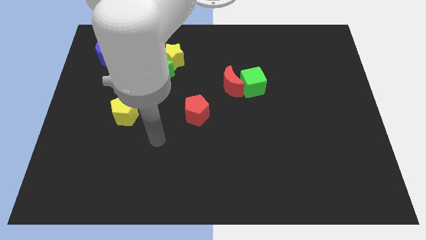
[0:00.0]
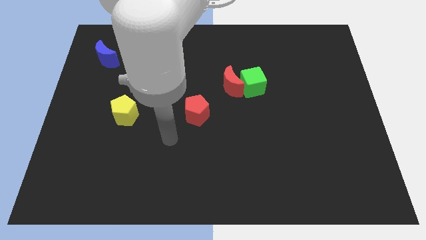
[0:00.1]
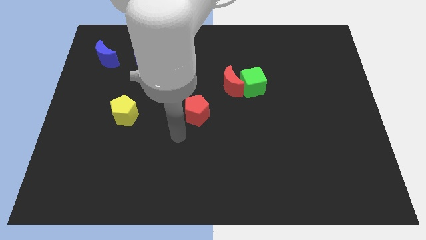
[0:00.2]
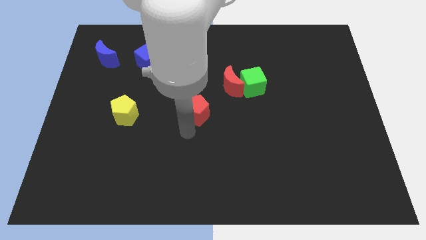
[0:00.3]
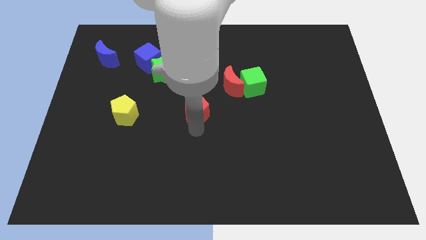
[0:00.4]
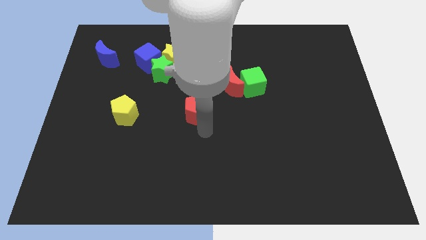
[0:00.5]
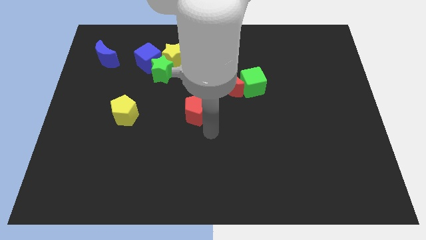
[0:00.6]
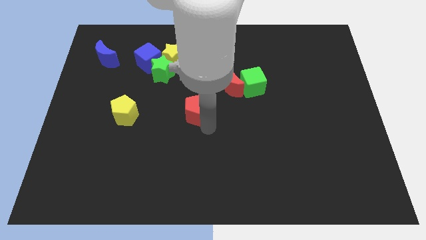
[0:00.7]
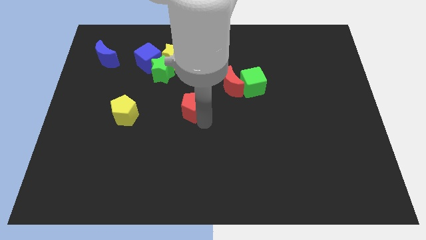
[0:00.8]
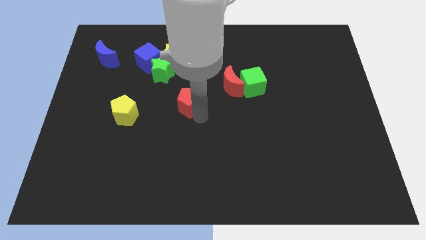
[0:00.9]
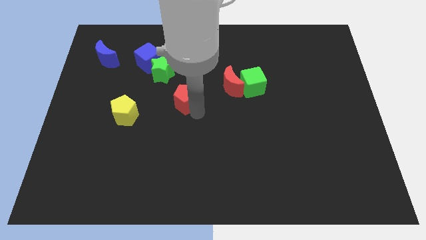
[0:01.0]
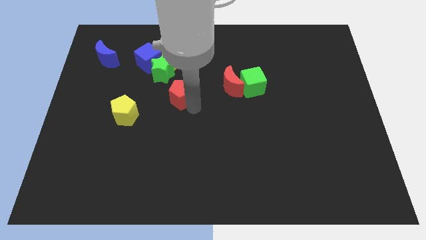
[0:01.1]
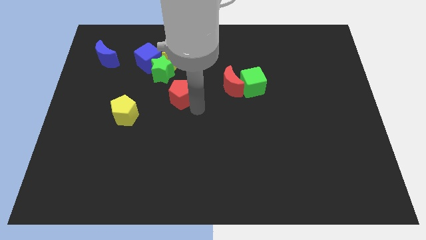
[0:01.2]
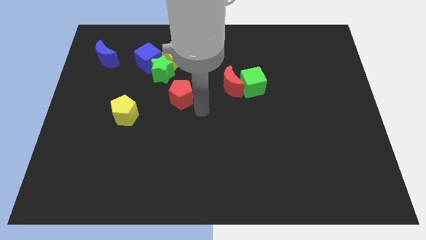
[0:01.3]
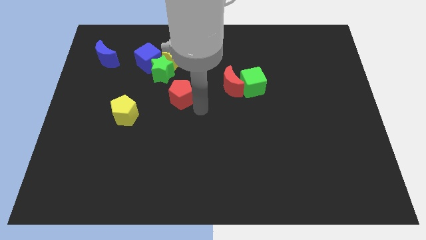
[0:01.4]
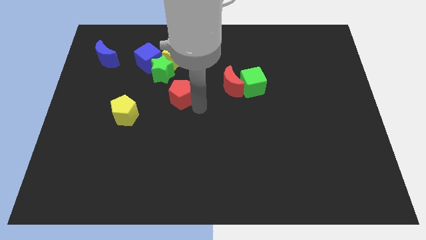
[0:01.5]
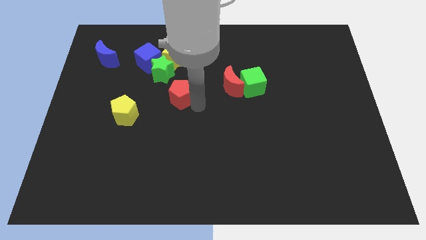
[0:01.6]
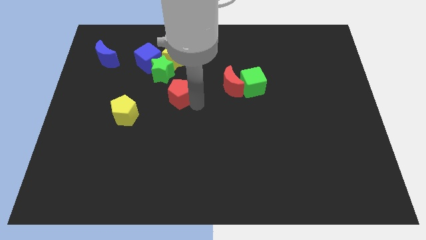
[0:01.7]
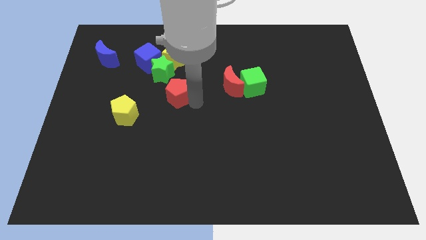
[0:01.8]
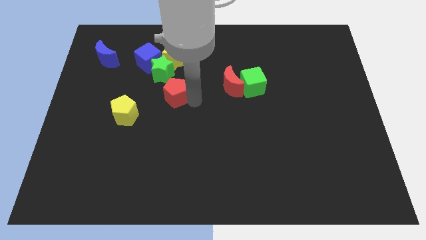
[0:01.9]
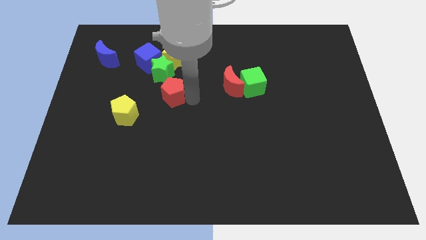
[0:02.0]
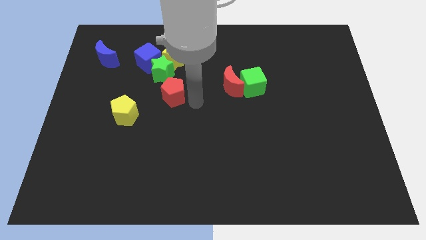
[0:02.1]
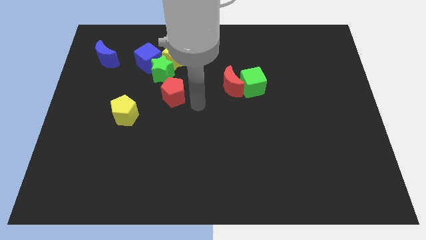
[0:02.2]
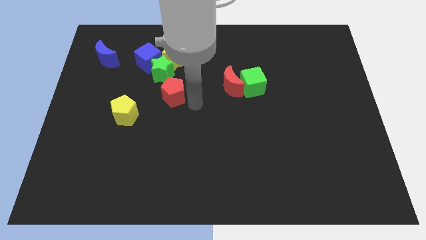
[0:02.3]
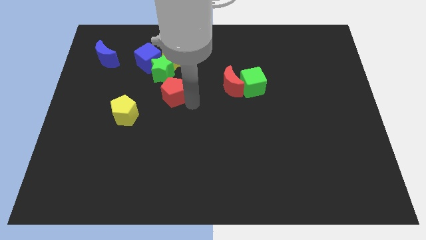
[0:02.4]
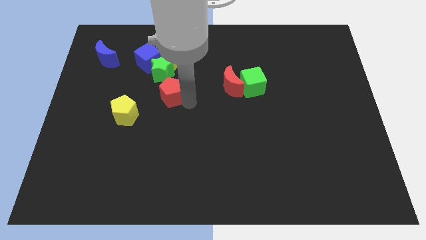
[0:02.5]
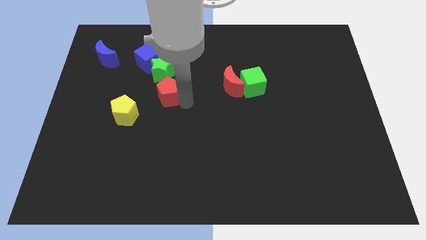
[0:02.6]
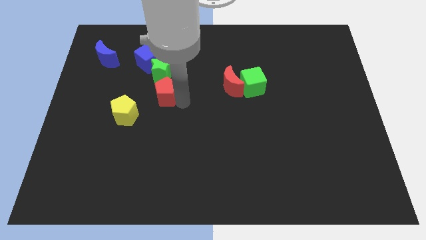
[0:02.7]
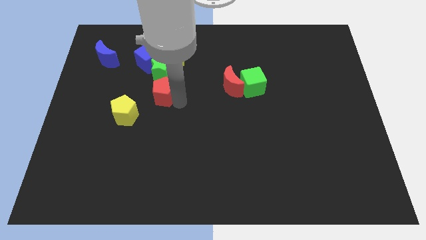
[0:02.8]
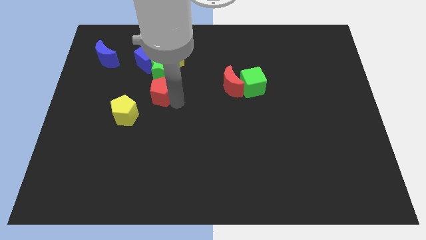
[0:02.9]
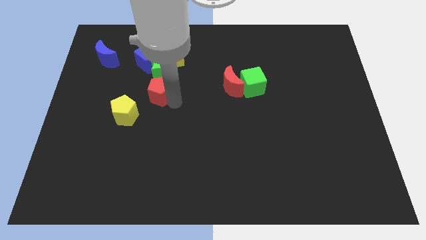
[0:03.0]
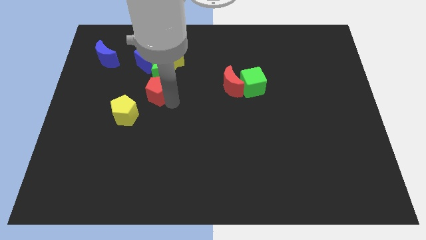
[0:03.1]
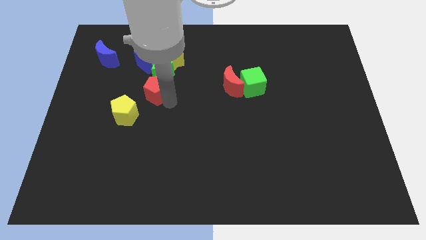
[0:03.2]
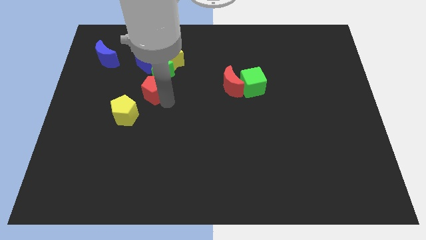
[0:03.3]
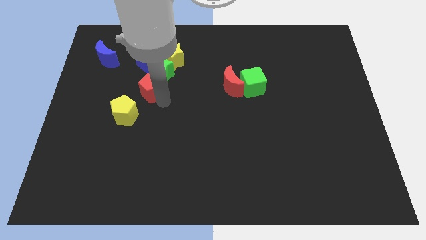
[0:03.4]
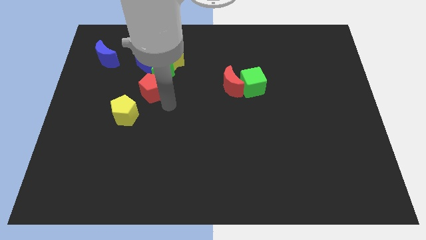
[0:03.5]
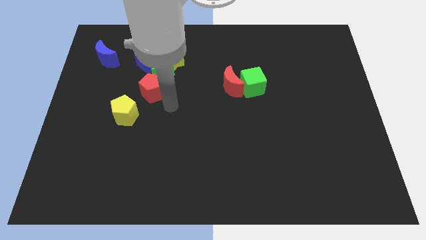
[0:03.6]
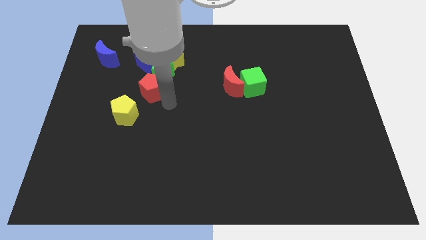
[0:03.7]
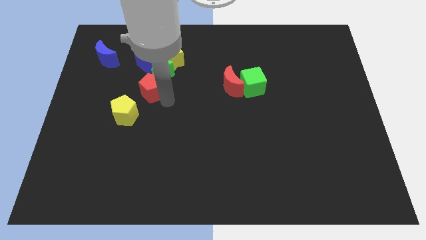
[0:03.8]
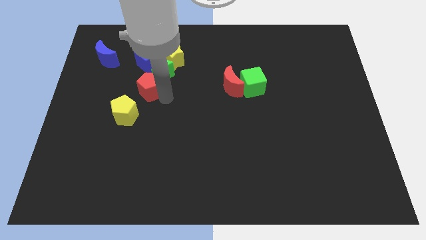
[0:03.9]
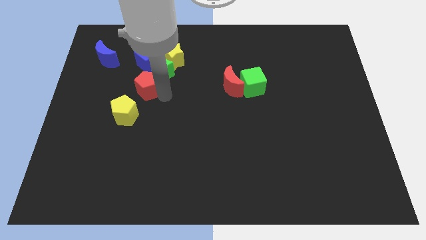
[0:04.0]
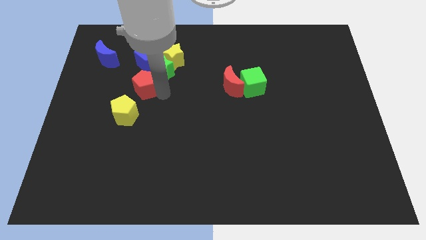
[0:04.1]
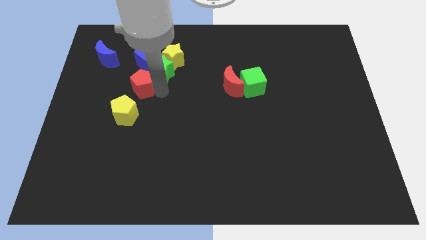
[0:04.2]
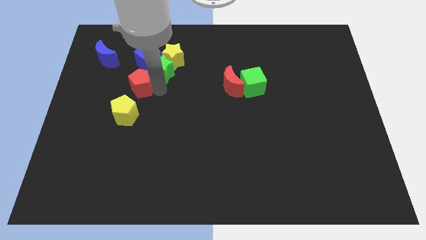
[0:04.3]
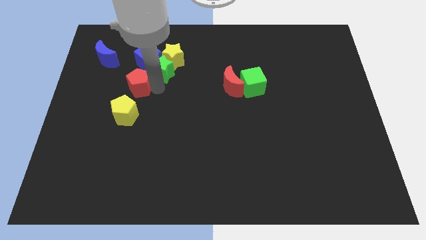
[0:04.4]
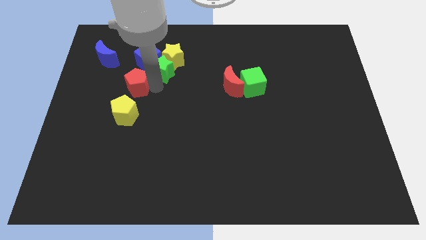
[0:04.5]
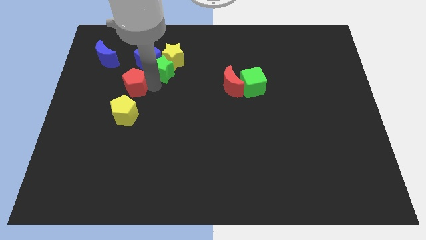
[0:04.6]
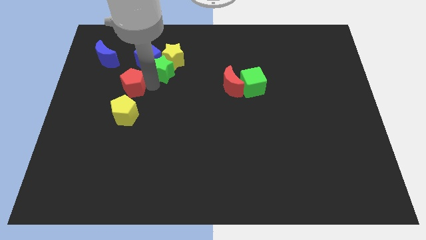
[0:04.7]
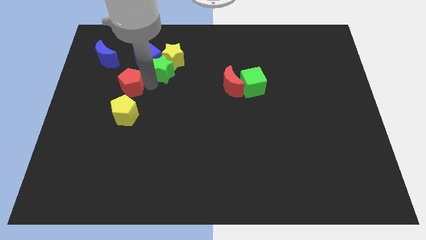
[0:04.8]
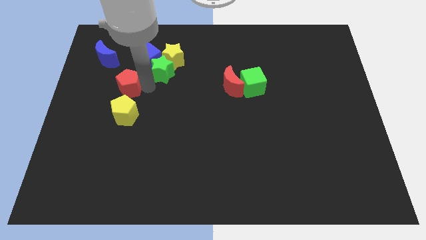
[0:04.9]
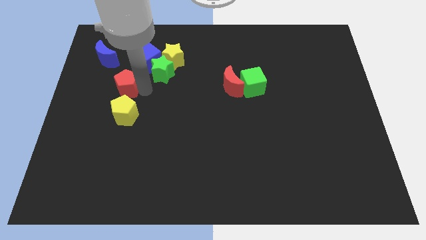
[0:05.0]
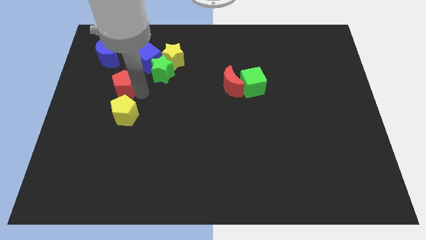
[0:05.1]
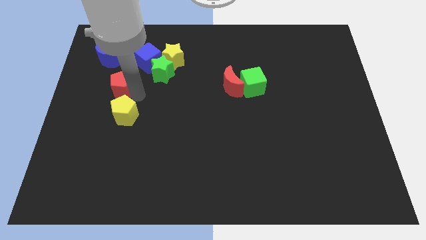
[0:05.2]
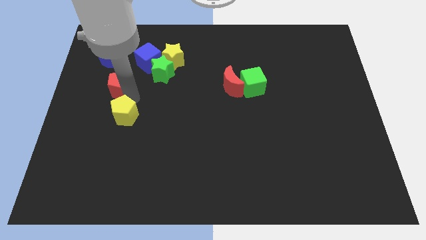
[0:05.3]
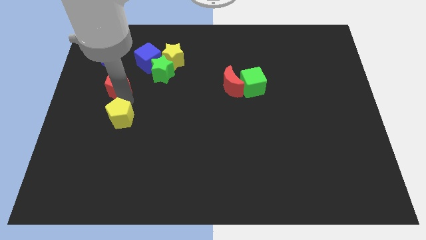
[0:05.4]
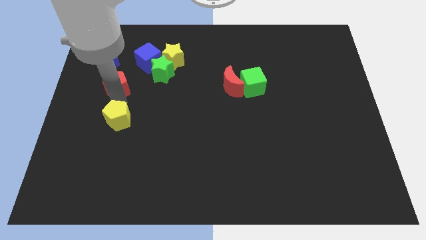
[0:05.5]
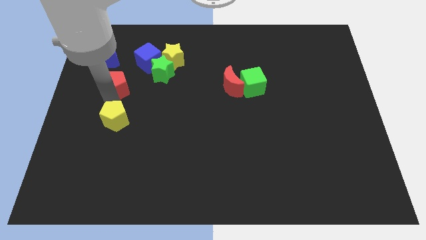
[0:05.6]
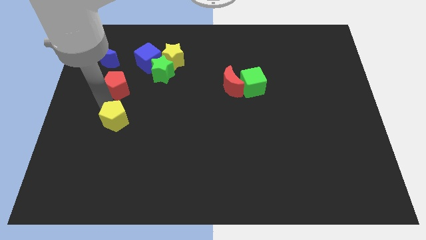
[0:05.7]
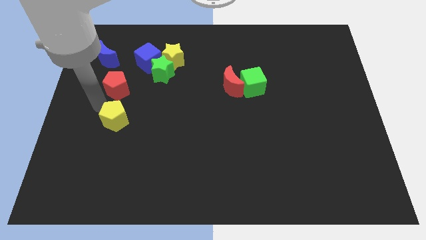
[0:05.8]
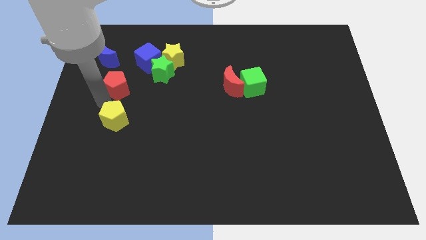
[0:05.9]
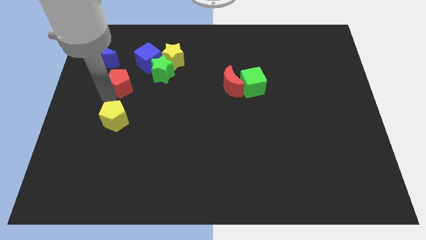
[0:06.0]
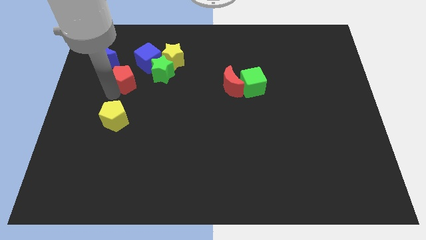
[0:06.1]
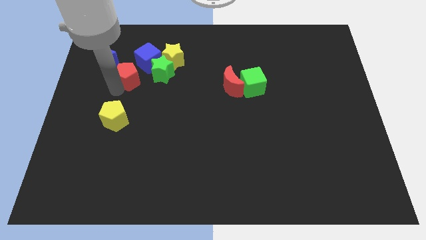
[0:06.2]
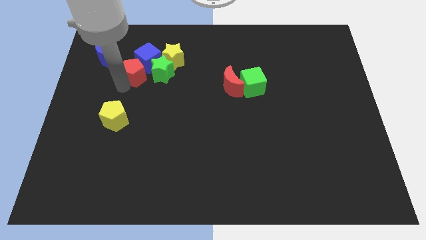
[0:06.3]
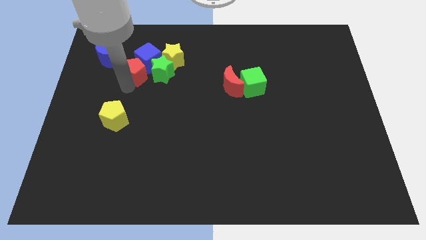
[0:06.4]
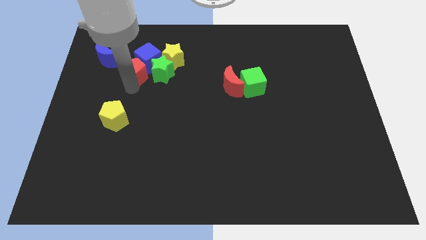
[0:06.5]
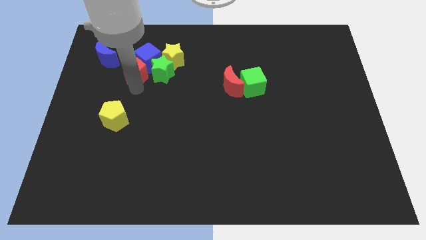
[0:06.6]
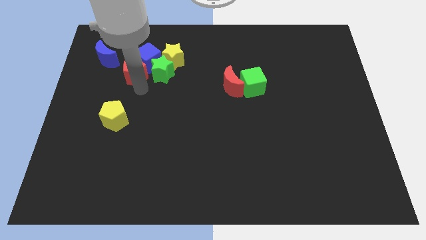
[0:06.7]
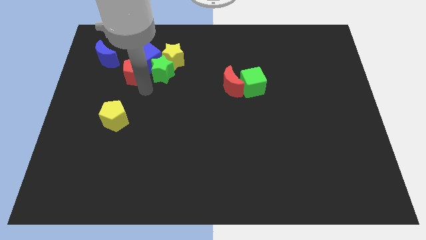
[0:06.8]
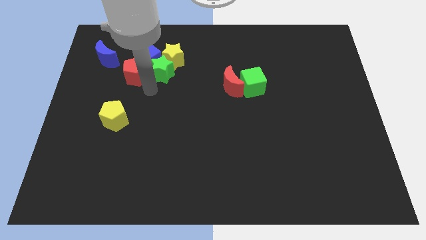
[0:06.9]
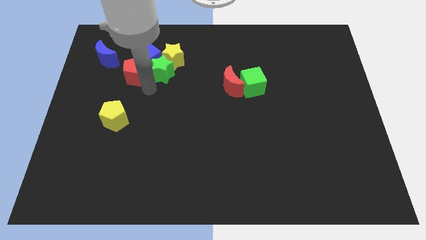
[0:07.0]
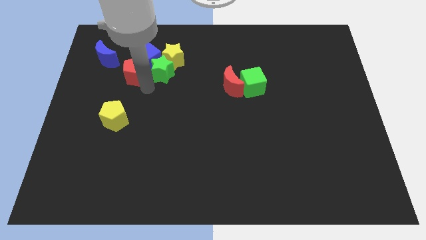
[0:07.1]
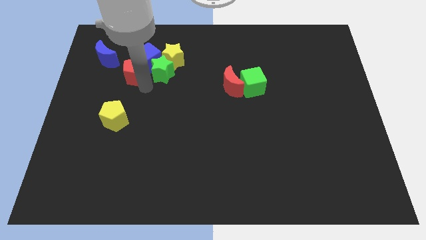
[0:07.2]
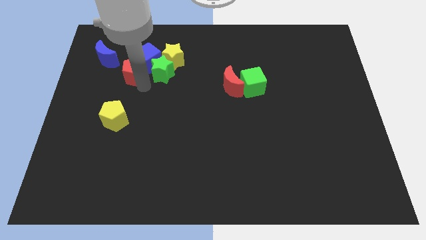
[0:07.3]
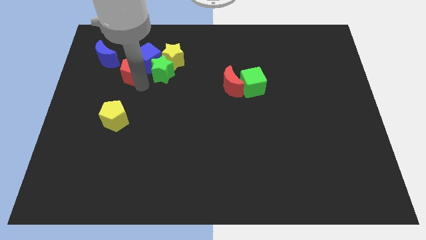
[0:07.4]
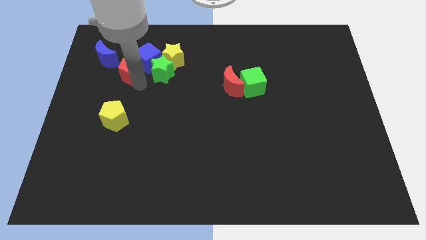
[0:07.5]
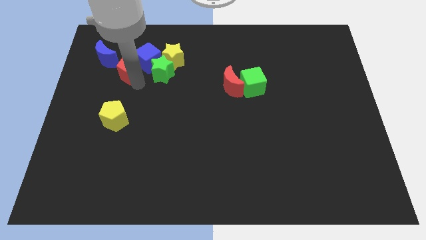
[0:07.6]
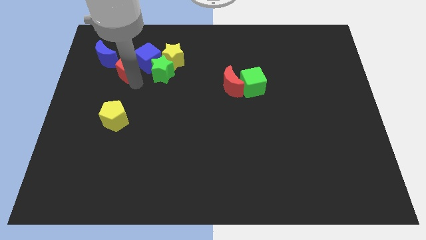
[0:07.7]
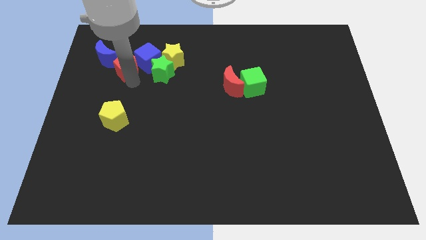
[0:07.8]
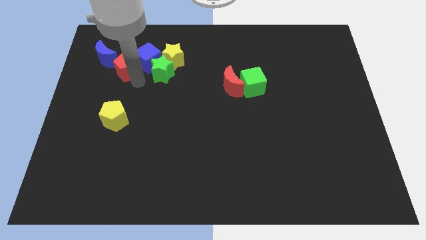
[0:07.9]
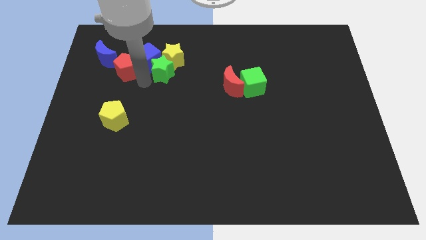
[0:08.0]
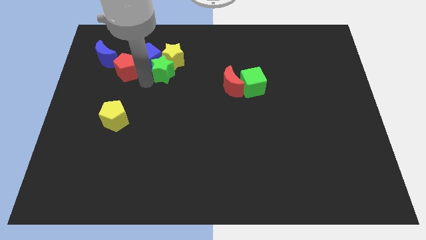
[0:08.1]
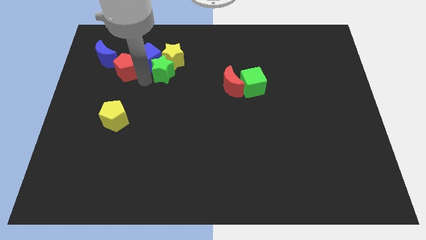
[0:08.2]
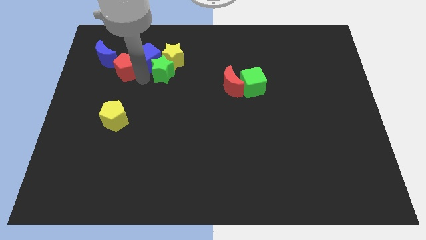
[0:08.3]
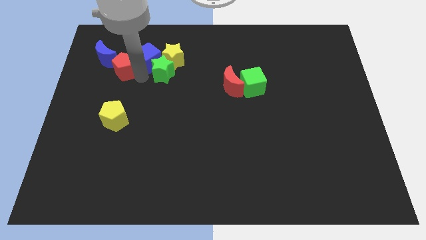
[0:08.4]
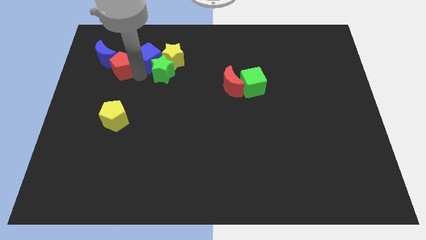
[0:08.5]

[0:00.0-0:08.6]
push the red pentagon next to the blue moon
